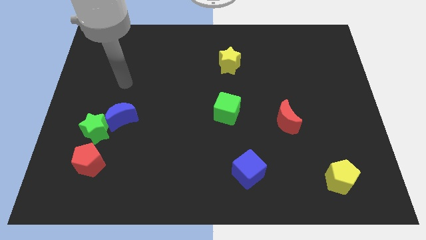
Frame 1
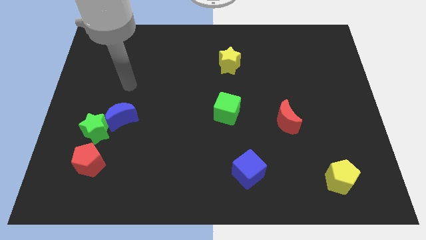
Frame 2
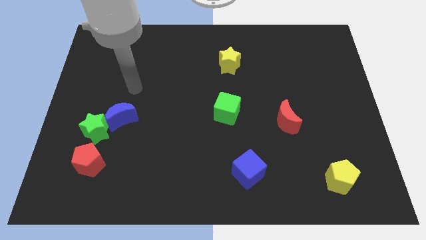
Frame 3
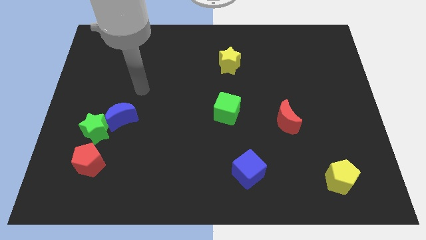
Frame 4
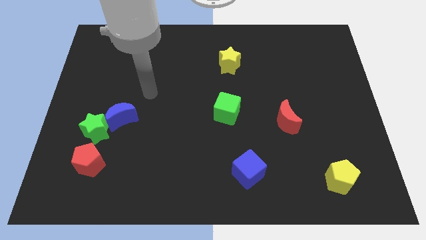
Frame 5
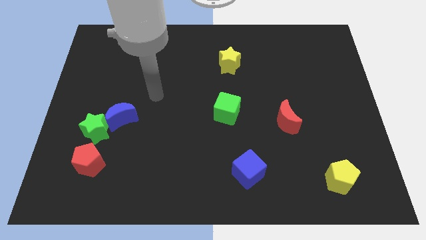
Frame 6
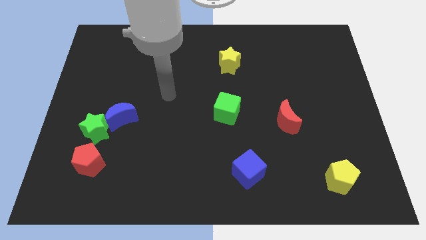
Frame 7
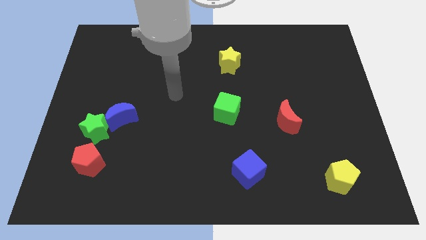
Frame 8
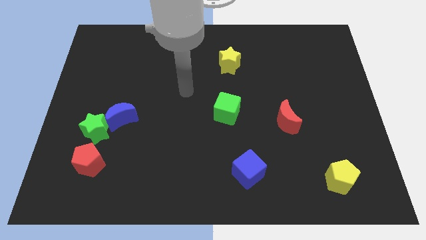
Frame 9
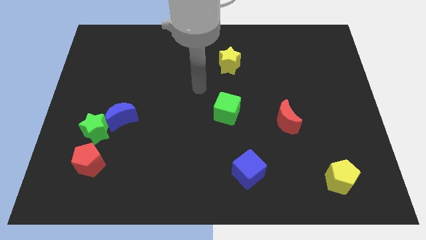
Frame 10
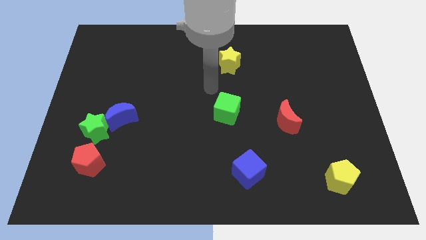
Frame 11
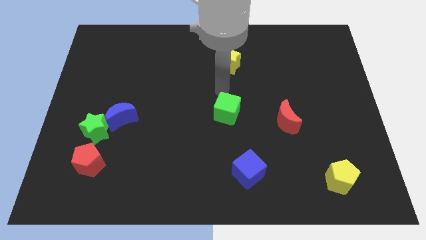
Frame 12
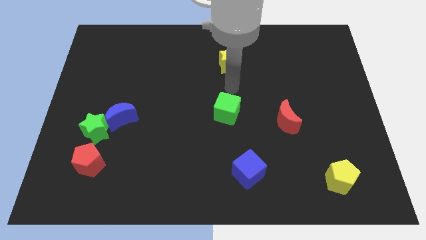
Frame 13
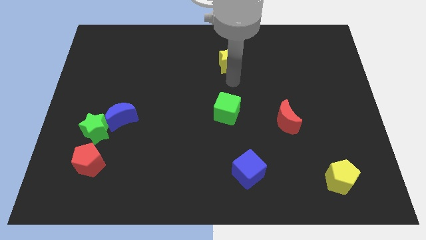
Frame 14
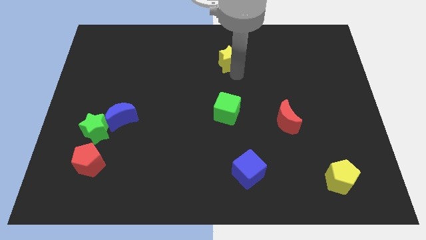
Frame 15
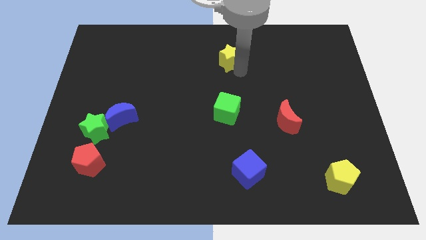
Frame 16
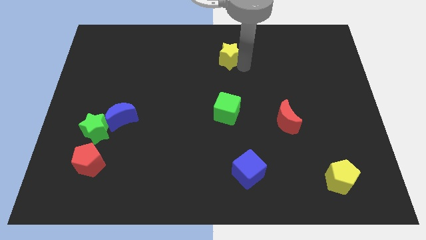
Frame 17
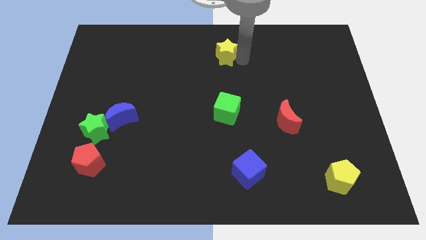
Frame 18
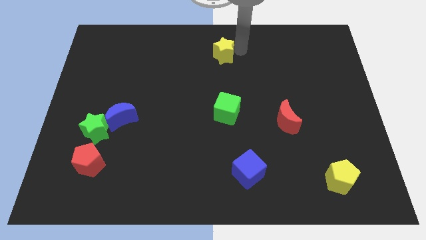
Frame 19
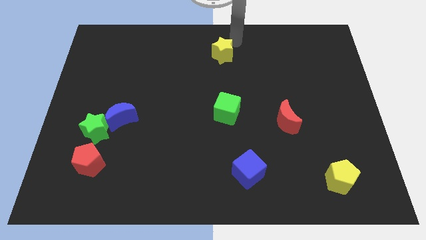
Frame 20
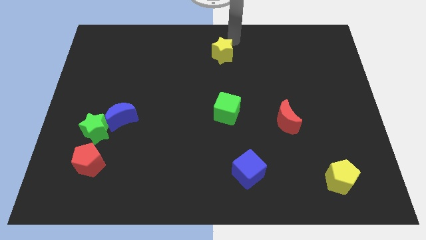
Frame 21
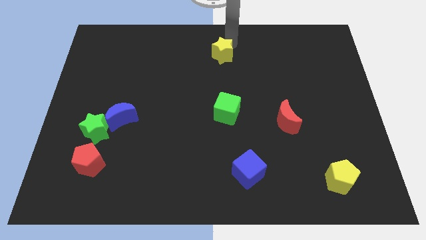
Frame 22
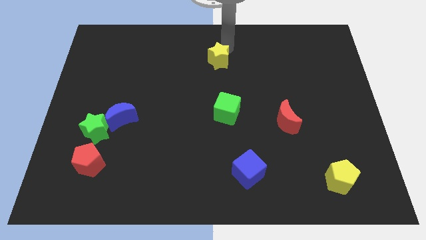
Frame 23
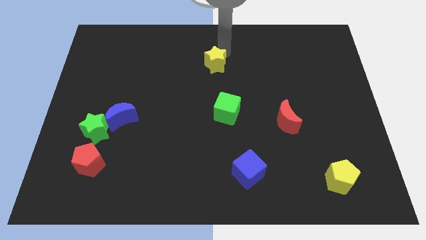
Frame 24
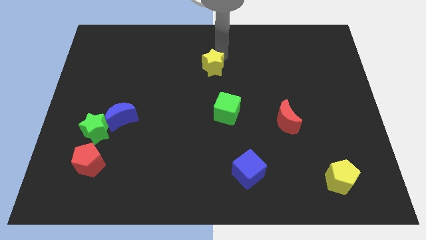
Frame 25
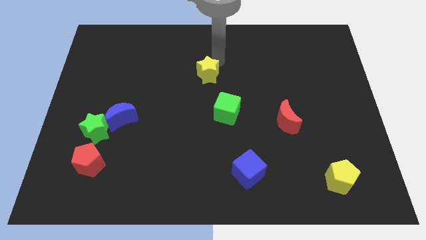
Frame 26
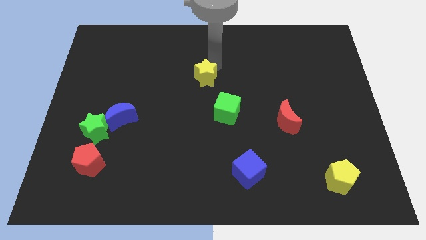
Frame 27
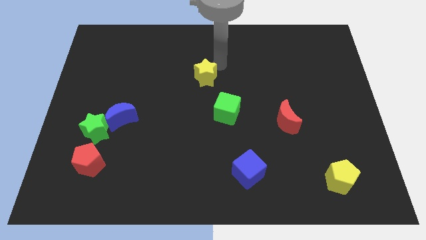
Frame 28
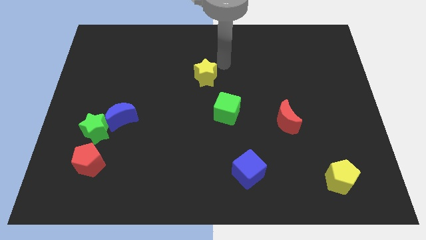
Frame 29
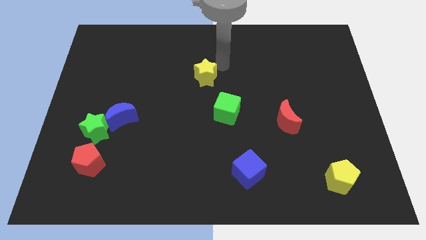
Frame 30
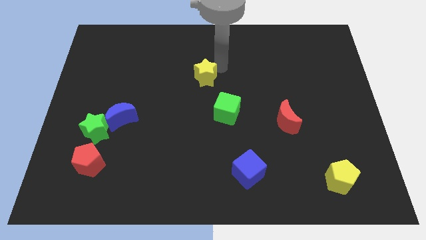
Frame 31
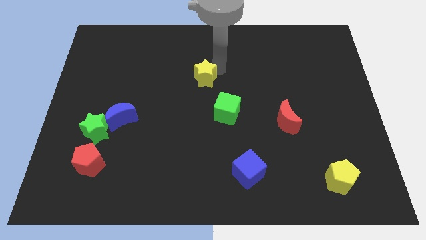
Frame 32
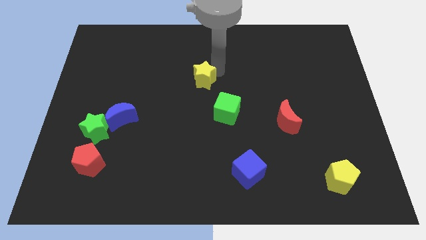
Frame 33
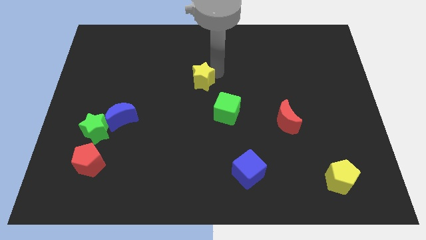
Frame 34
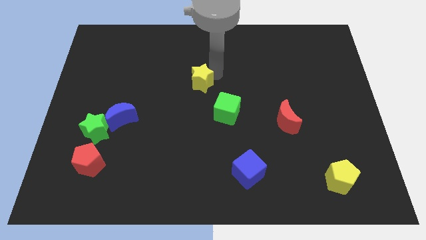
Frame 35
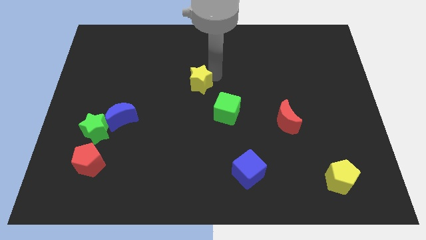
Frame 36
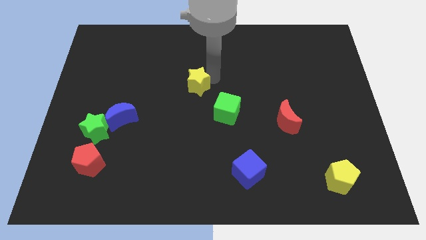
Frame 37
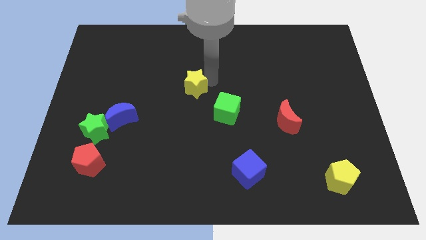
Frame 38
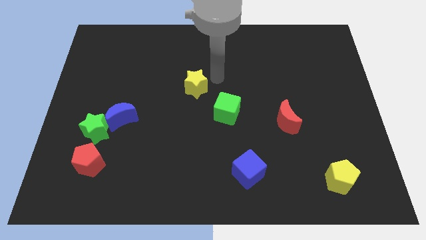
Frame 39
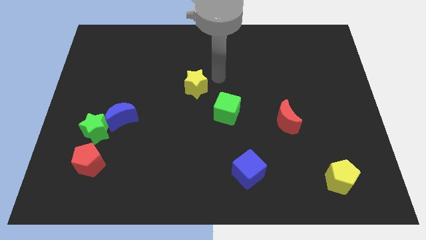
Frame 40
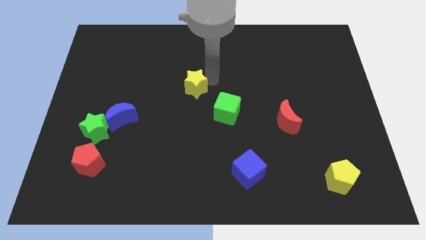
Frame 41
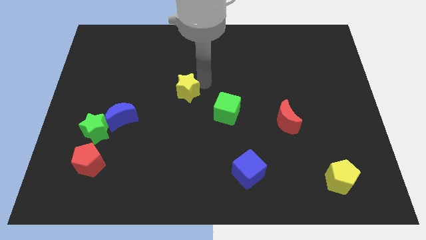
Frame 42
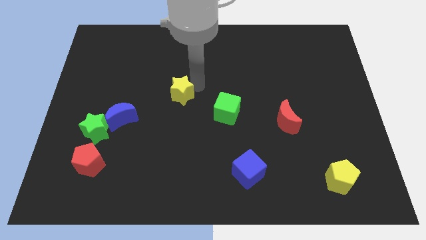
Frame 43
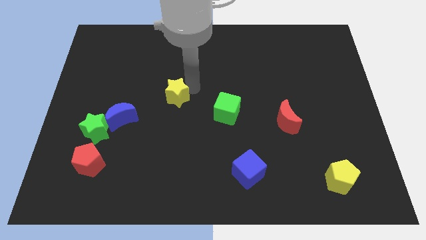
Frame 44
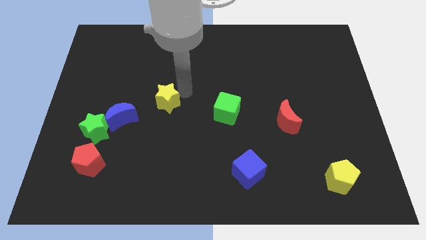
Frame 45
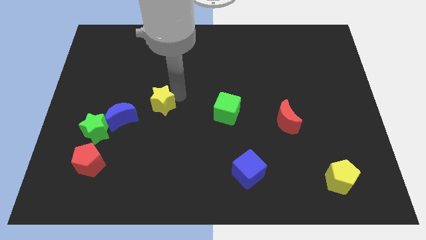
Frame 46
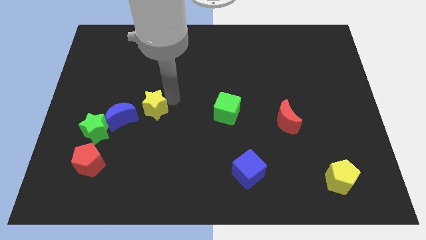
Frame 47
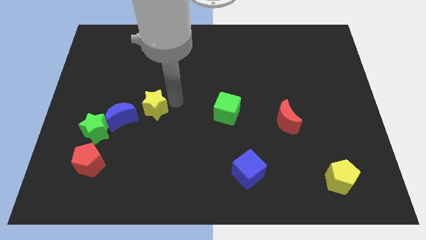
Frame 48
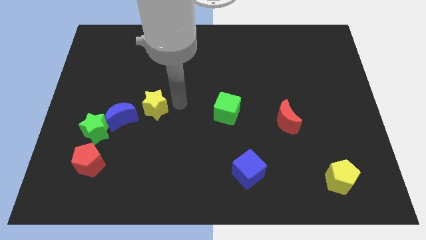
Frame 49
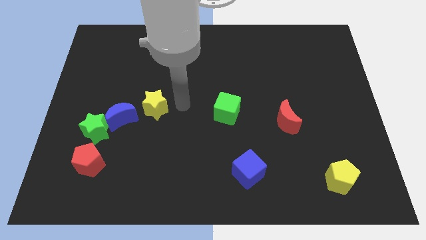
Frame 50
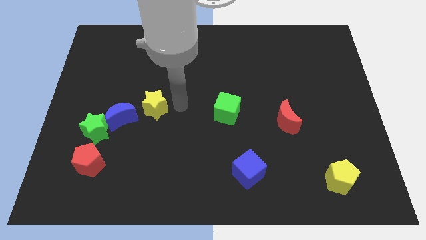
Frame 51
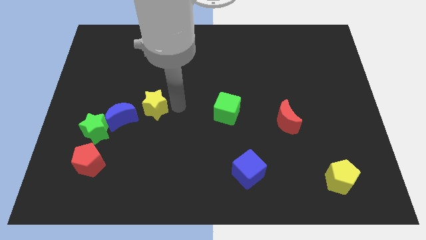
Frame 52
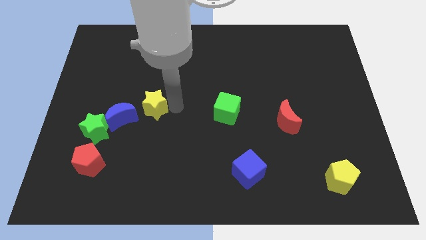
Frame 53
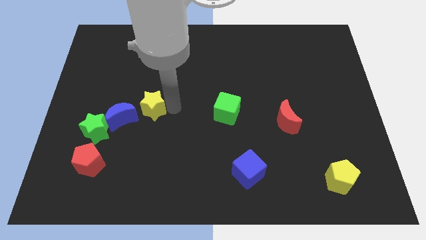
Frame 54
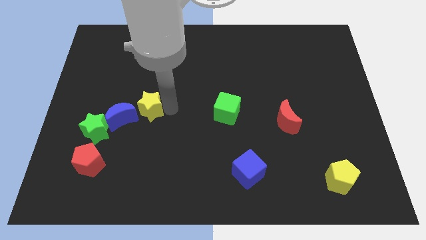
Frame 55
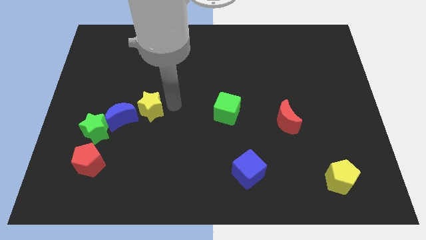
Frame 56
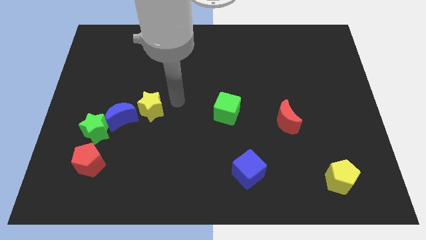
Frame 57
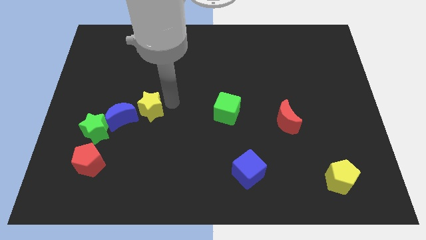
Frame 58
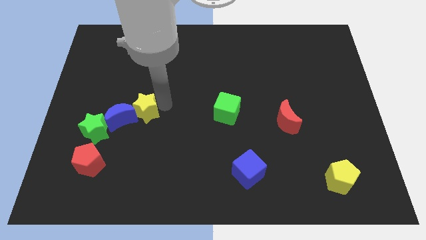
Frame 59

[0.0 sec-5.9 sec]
move the yellow star to the blue moon

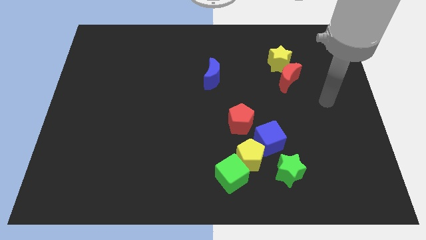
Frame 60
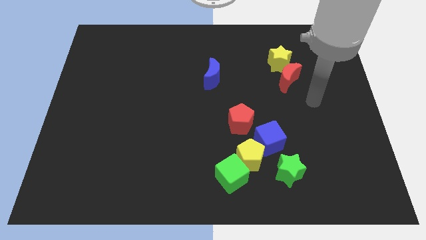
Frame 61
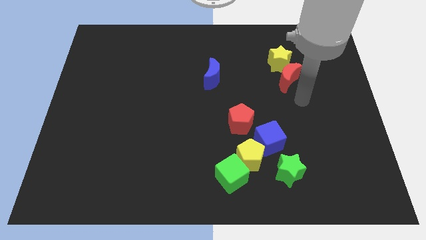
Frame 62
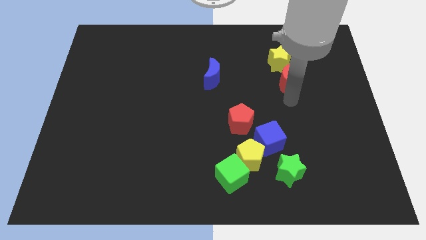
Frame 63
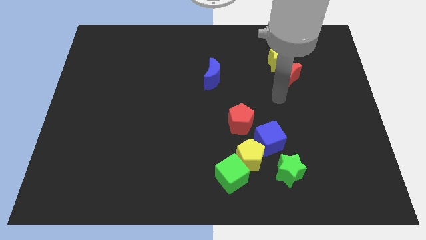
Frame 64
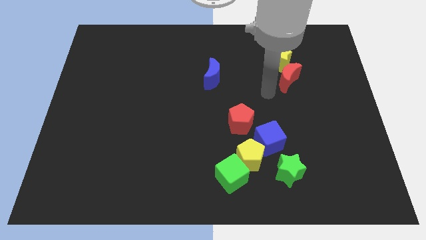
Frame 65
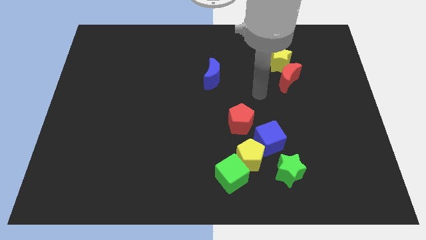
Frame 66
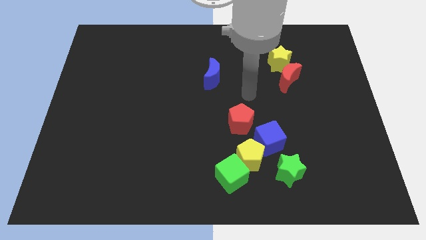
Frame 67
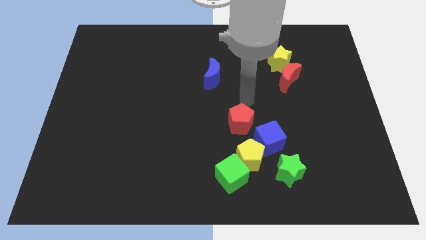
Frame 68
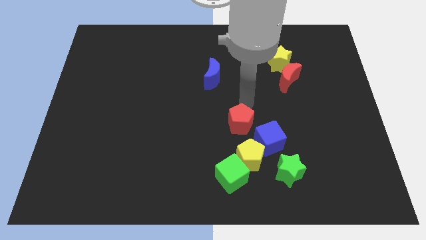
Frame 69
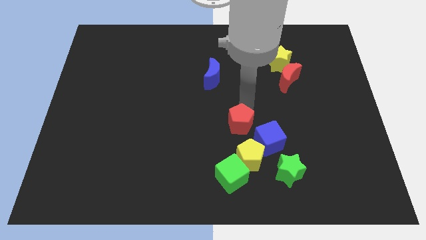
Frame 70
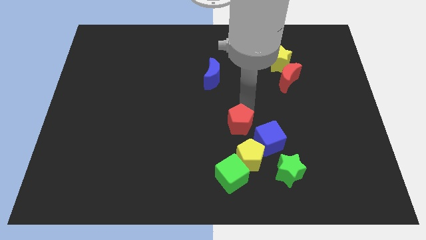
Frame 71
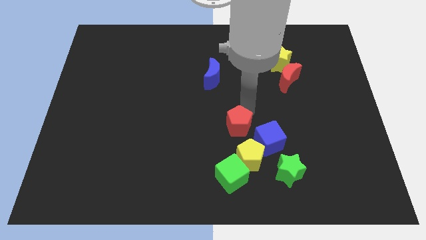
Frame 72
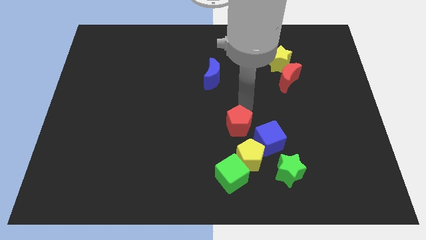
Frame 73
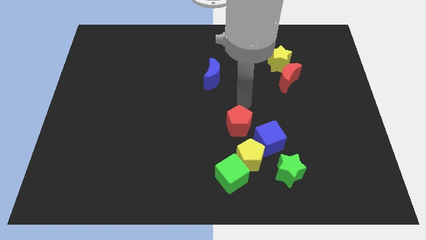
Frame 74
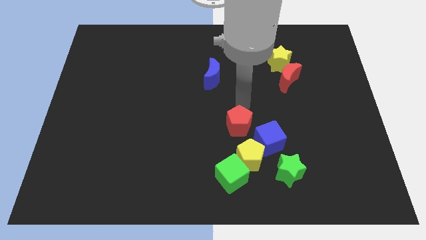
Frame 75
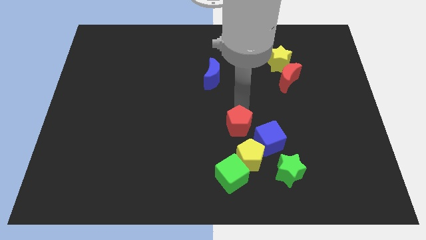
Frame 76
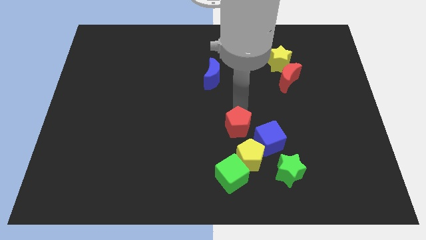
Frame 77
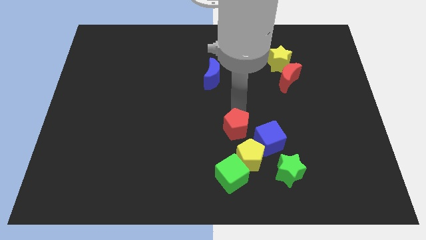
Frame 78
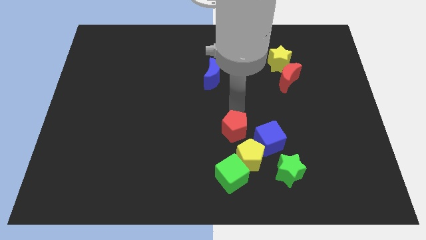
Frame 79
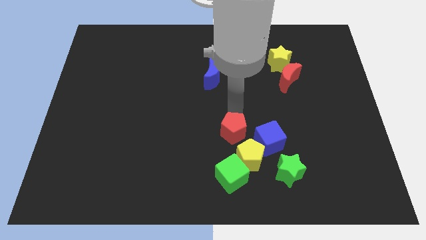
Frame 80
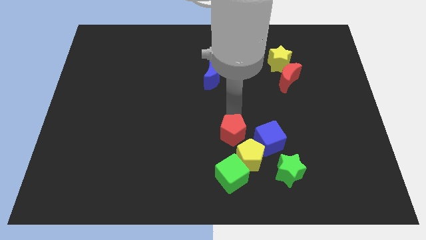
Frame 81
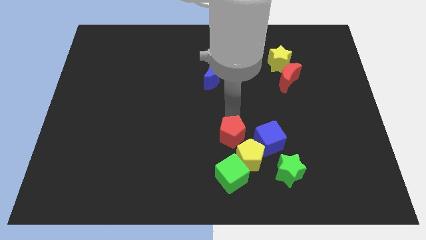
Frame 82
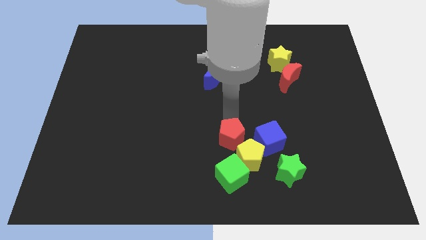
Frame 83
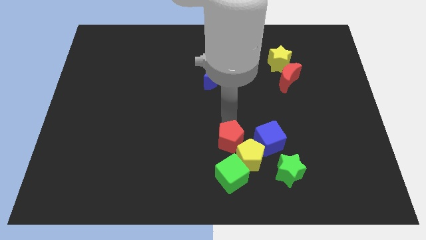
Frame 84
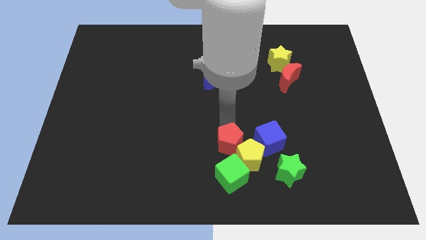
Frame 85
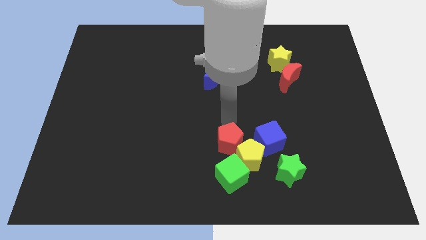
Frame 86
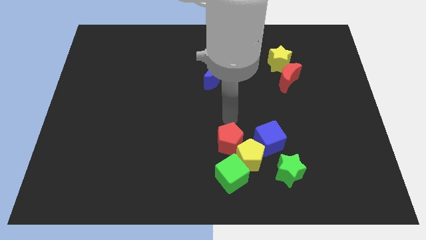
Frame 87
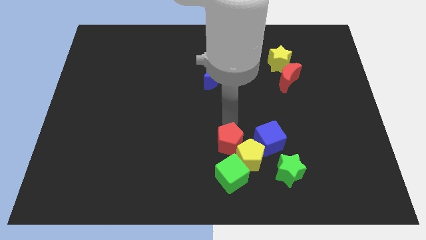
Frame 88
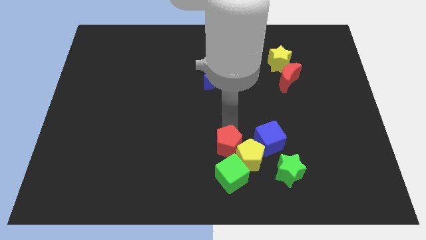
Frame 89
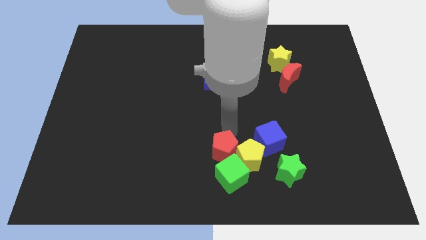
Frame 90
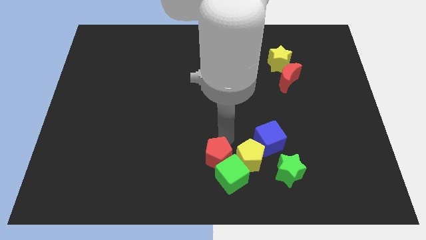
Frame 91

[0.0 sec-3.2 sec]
slide the red pentagon towards the green cube
